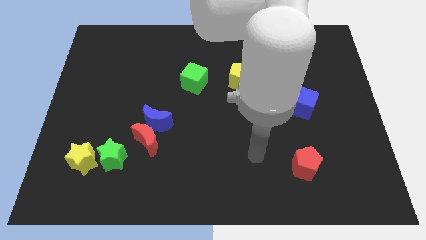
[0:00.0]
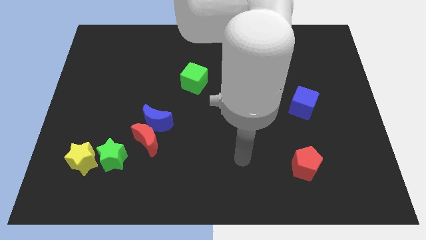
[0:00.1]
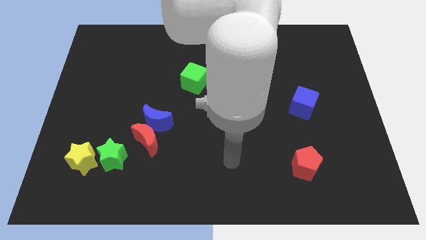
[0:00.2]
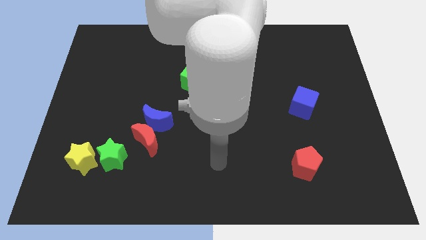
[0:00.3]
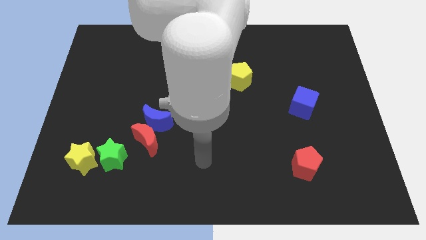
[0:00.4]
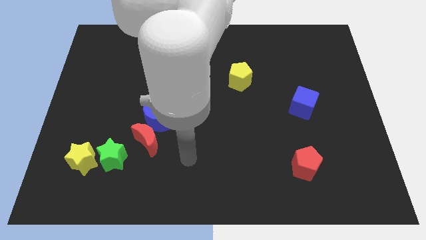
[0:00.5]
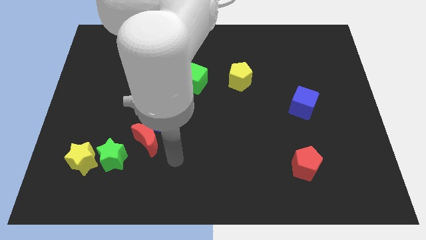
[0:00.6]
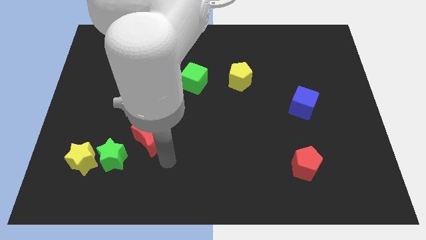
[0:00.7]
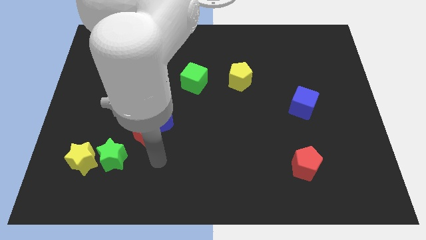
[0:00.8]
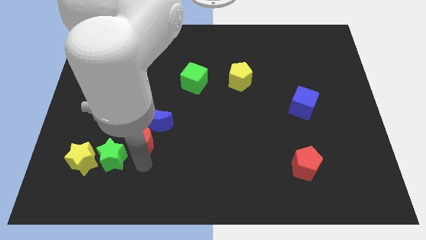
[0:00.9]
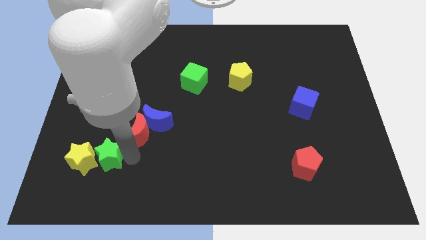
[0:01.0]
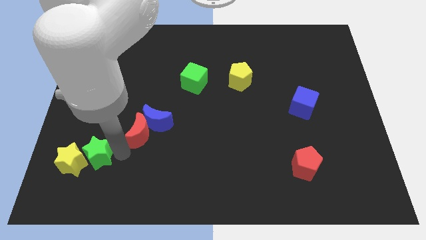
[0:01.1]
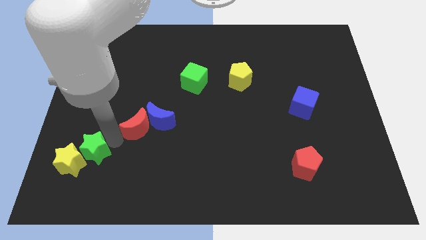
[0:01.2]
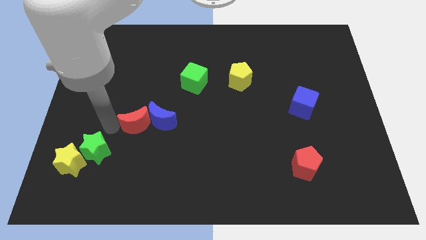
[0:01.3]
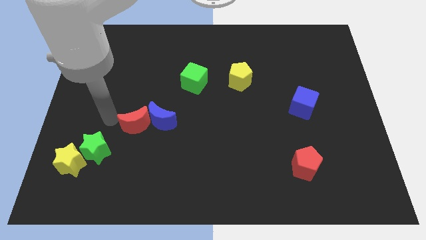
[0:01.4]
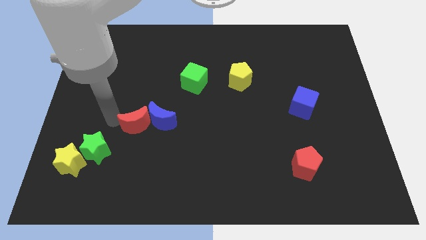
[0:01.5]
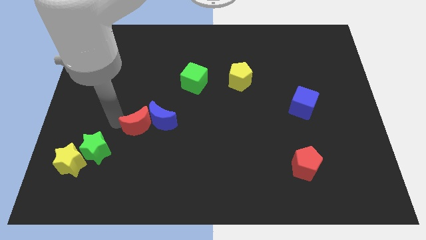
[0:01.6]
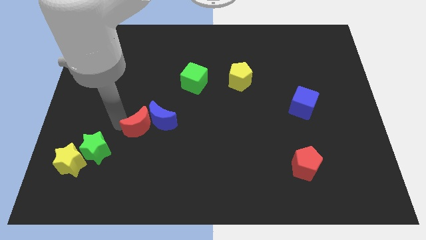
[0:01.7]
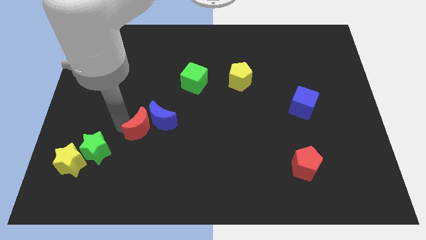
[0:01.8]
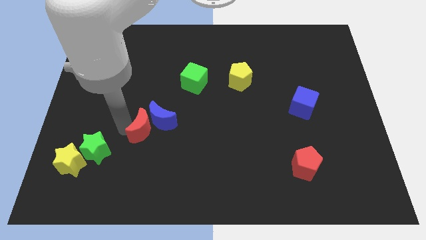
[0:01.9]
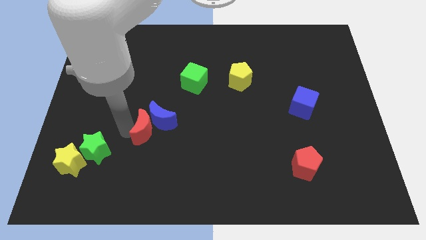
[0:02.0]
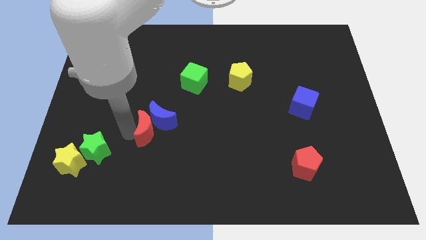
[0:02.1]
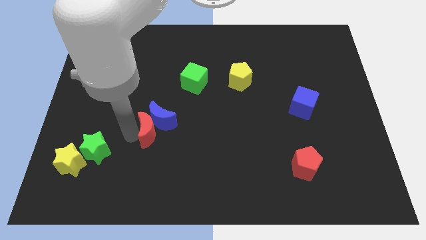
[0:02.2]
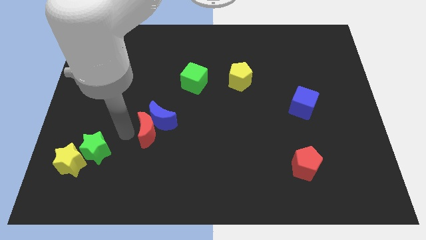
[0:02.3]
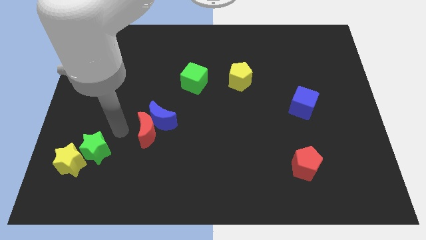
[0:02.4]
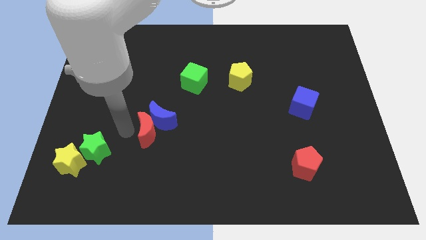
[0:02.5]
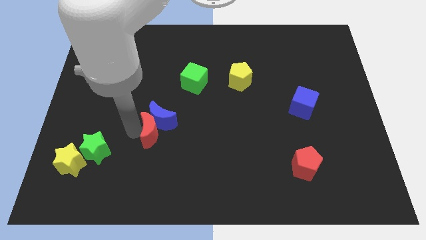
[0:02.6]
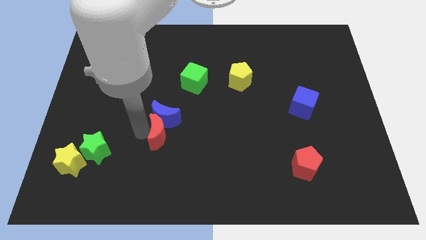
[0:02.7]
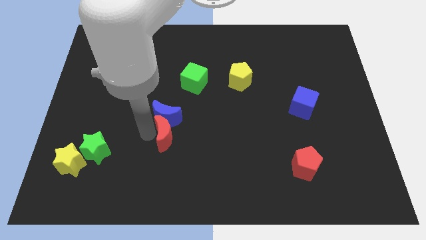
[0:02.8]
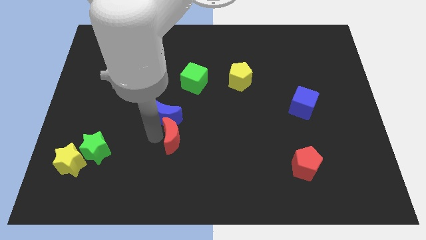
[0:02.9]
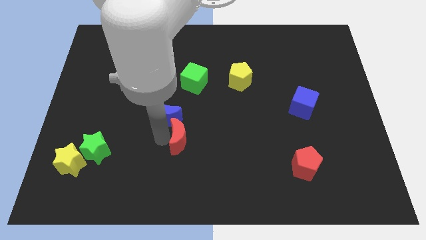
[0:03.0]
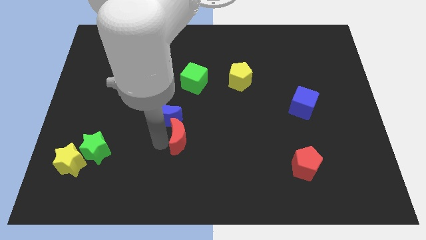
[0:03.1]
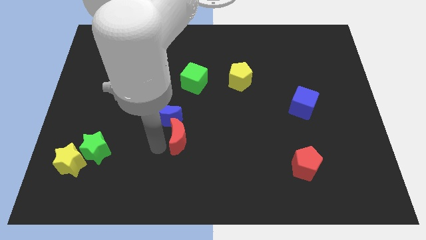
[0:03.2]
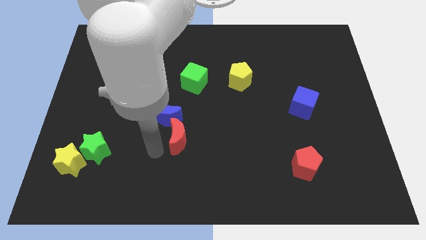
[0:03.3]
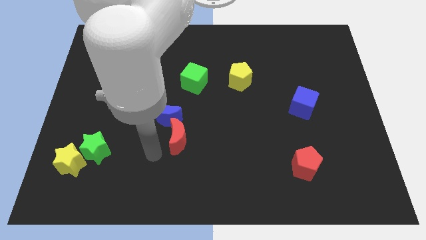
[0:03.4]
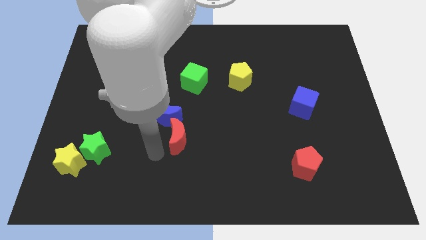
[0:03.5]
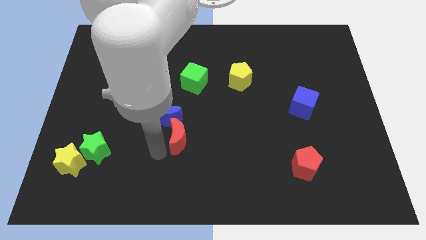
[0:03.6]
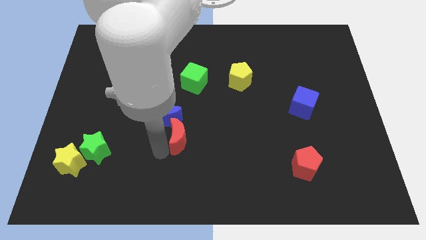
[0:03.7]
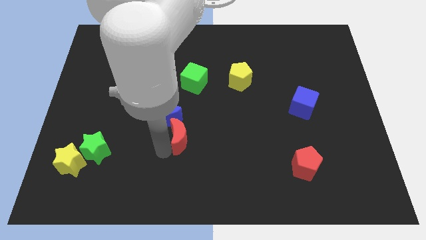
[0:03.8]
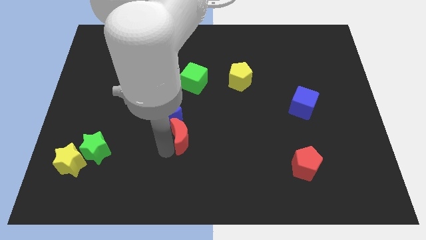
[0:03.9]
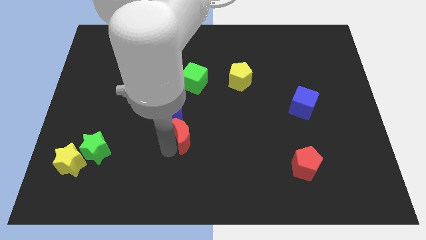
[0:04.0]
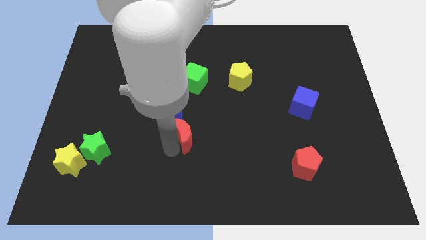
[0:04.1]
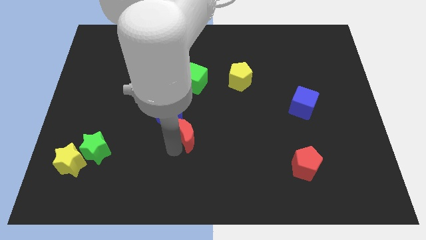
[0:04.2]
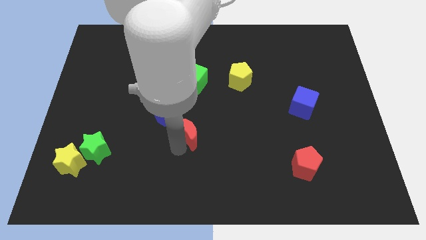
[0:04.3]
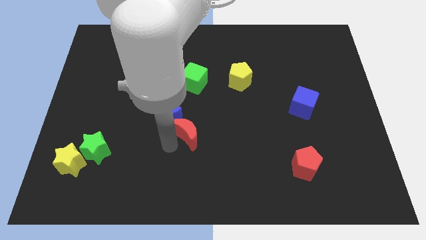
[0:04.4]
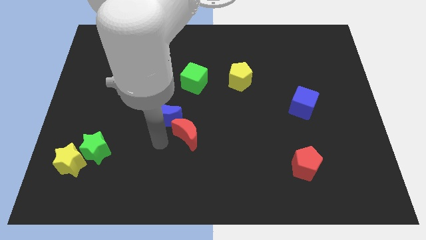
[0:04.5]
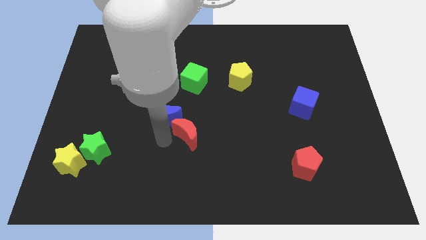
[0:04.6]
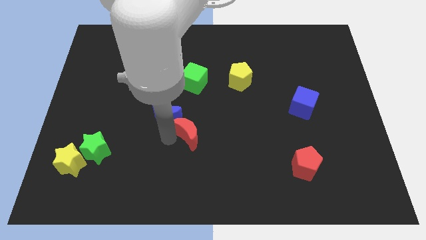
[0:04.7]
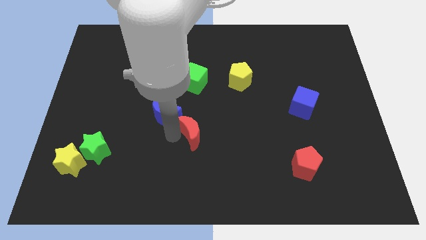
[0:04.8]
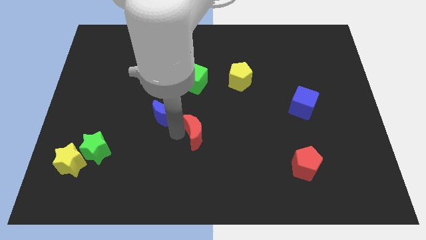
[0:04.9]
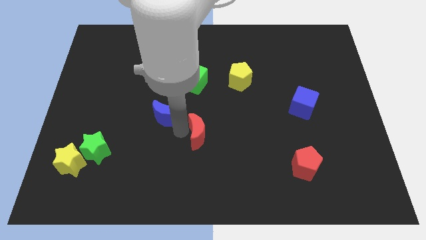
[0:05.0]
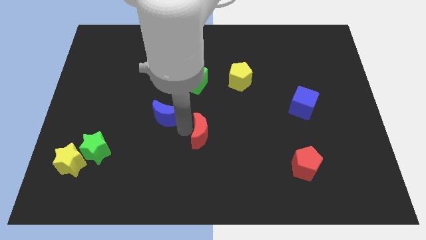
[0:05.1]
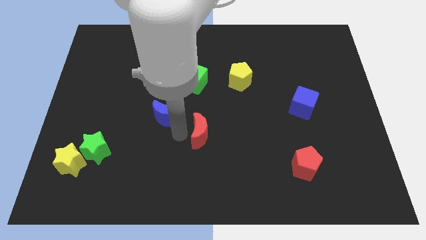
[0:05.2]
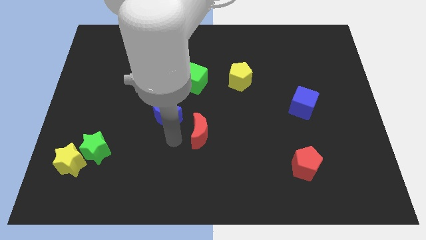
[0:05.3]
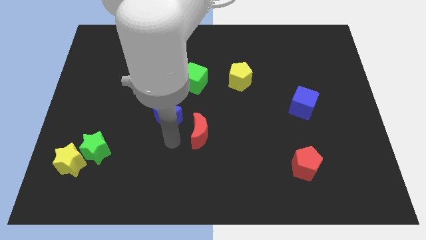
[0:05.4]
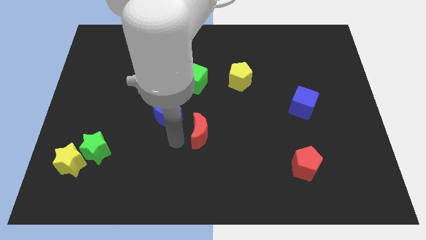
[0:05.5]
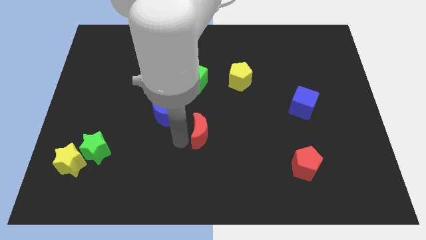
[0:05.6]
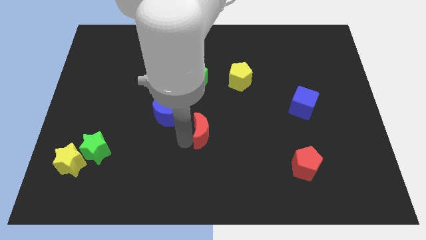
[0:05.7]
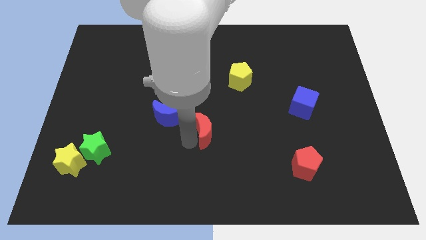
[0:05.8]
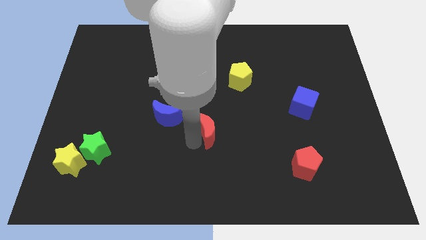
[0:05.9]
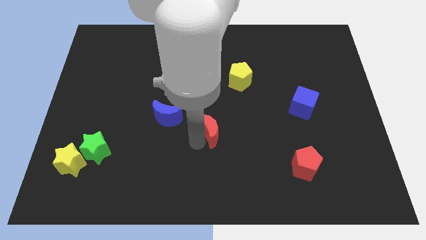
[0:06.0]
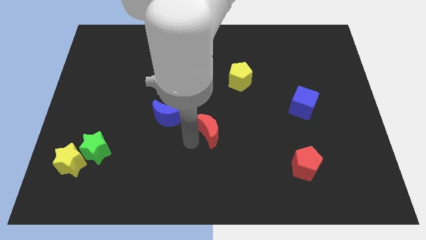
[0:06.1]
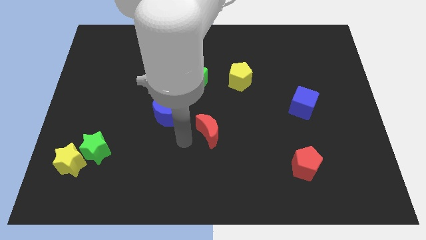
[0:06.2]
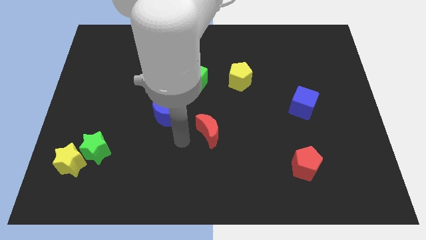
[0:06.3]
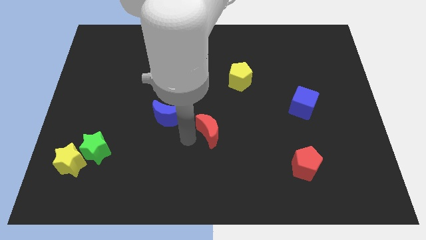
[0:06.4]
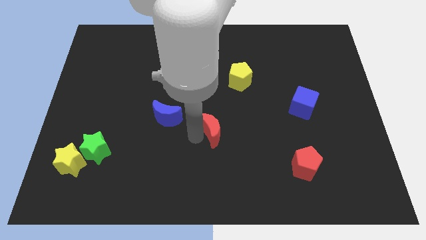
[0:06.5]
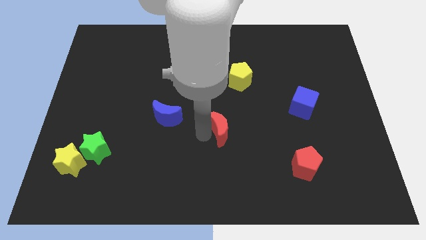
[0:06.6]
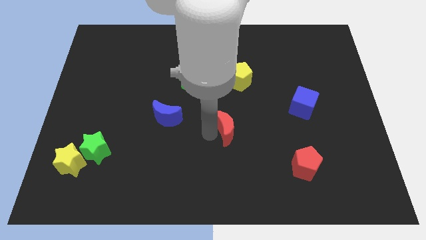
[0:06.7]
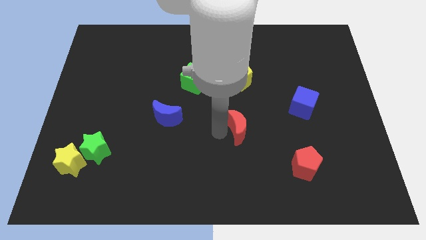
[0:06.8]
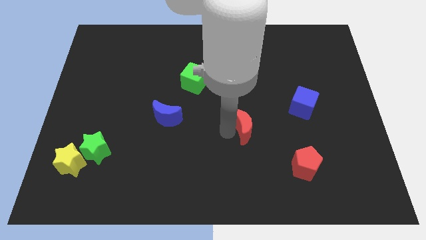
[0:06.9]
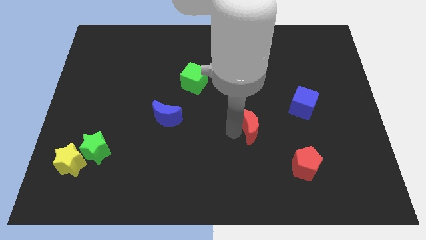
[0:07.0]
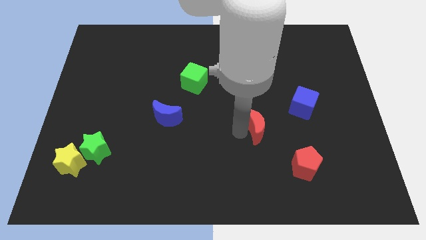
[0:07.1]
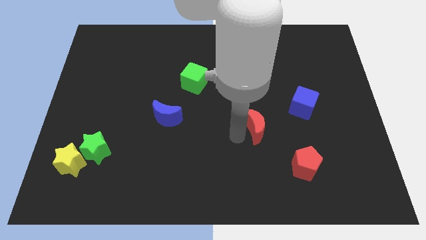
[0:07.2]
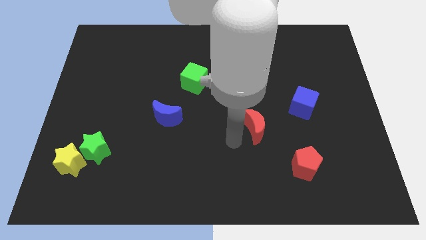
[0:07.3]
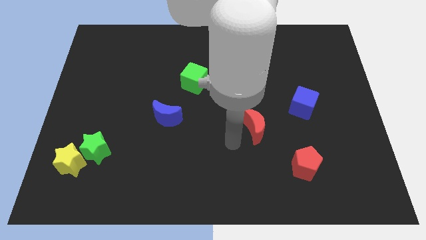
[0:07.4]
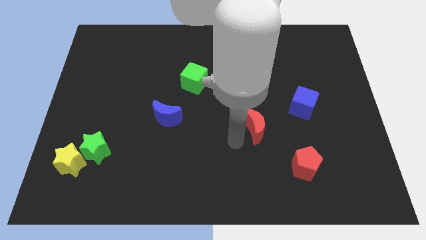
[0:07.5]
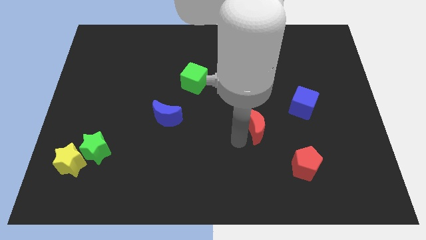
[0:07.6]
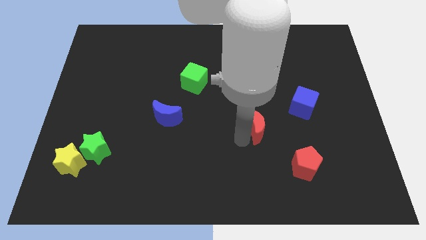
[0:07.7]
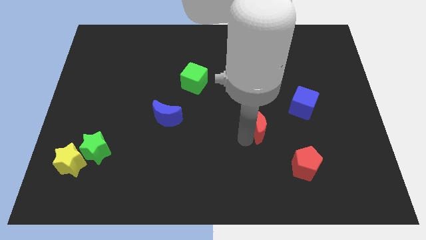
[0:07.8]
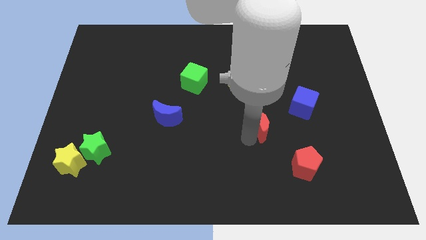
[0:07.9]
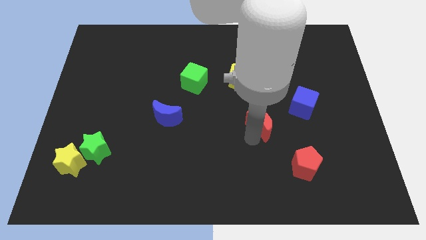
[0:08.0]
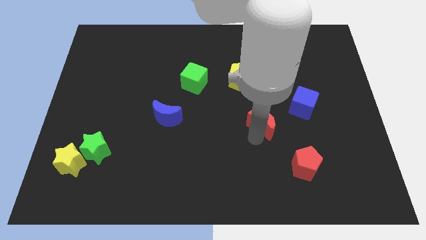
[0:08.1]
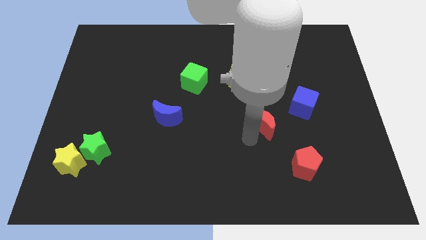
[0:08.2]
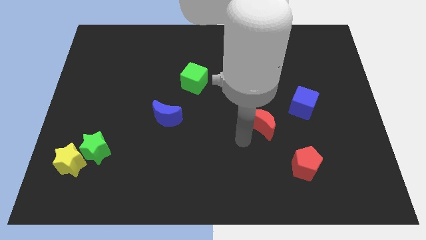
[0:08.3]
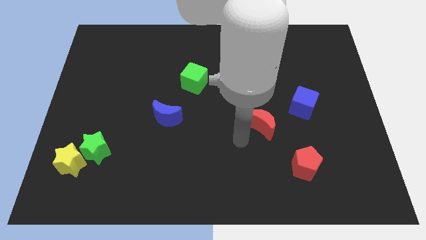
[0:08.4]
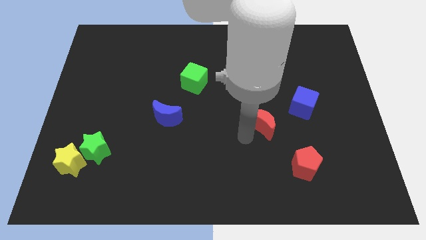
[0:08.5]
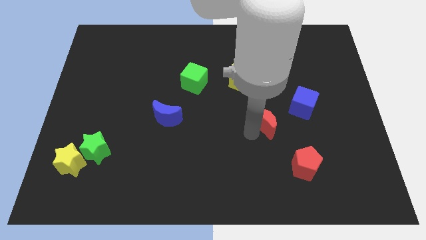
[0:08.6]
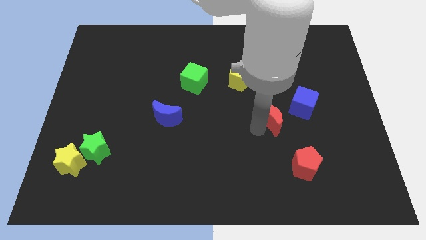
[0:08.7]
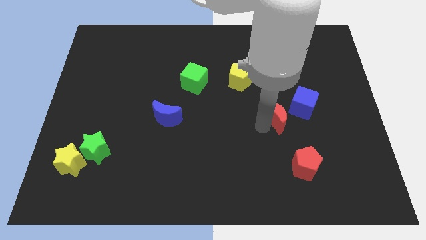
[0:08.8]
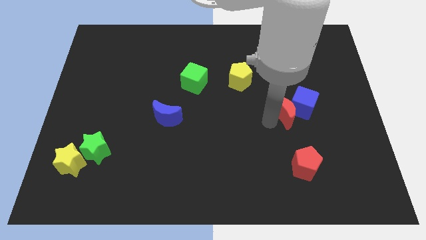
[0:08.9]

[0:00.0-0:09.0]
push the red moon to the blue cube
